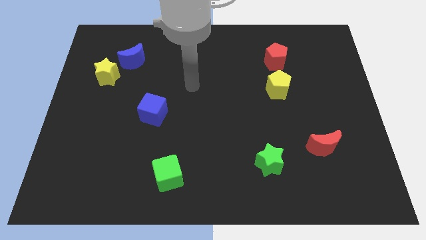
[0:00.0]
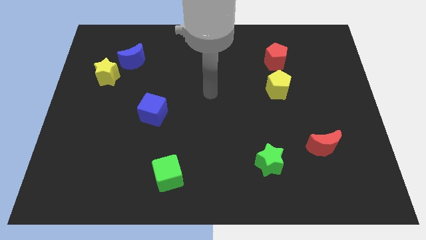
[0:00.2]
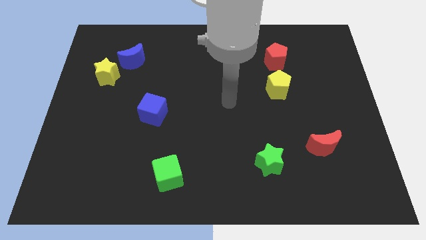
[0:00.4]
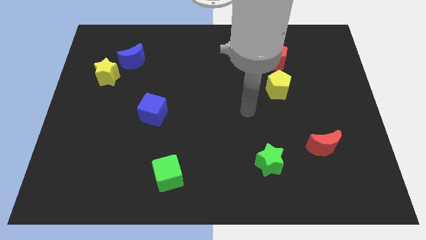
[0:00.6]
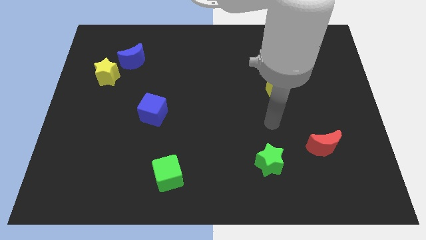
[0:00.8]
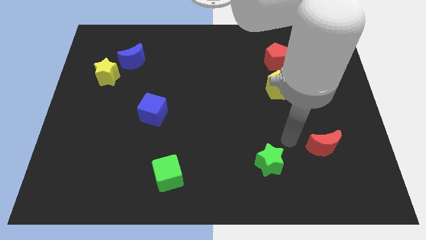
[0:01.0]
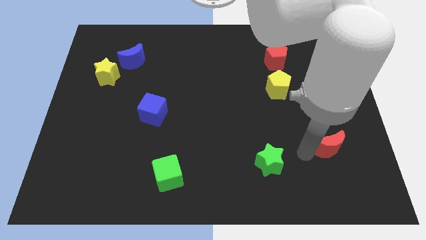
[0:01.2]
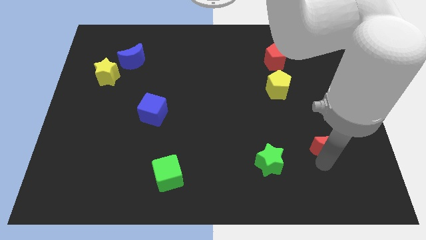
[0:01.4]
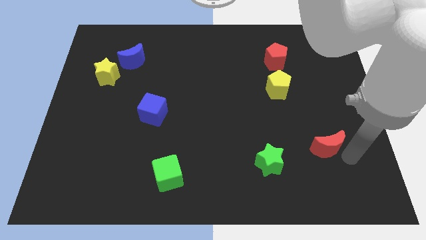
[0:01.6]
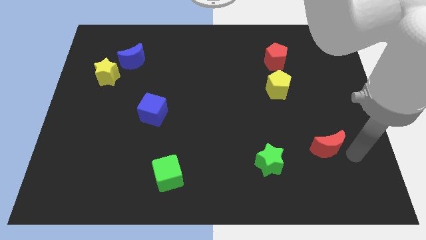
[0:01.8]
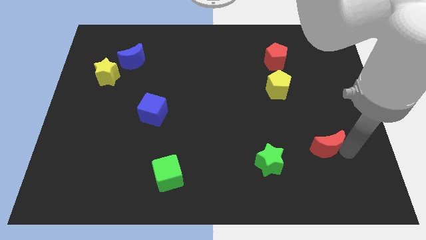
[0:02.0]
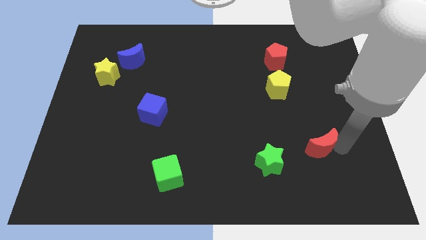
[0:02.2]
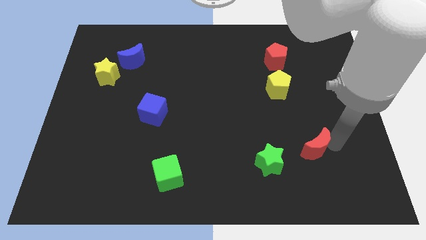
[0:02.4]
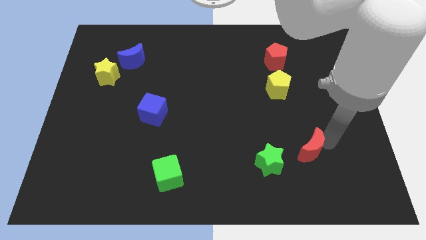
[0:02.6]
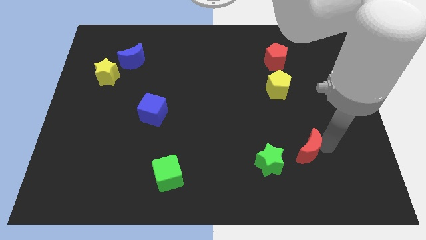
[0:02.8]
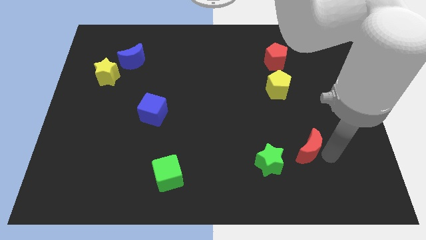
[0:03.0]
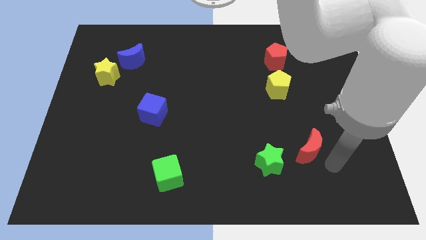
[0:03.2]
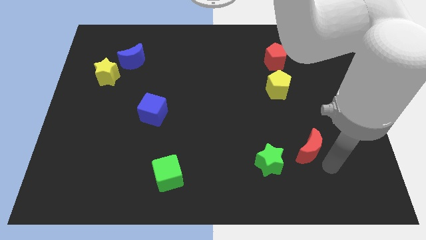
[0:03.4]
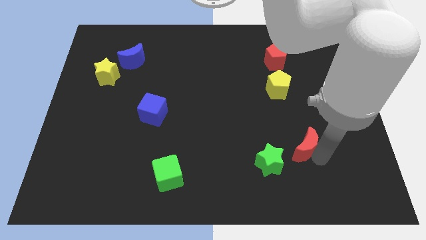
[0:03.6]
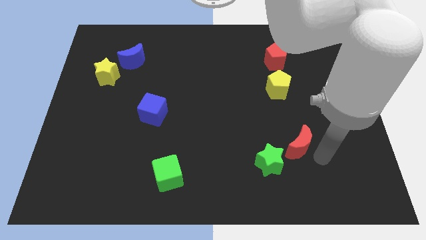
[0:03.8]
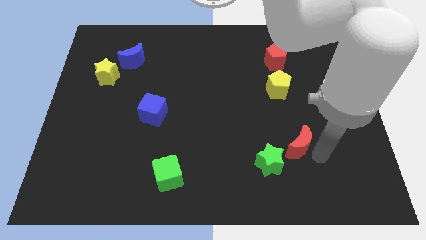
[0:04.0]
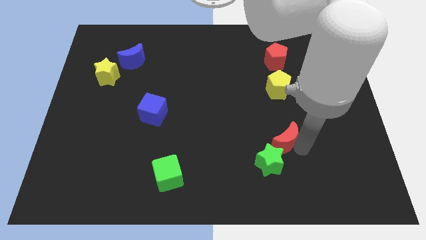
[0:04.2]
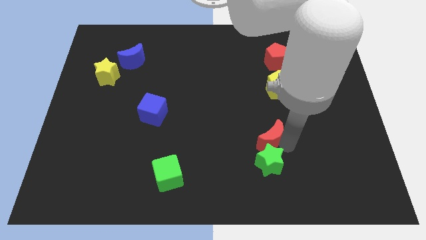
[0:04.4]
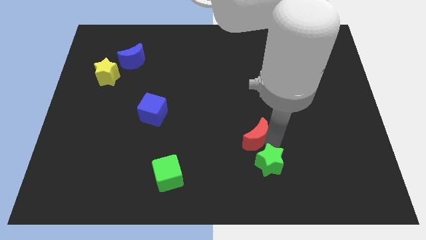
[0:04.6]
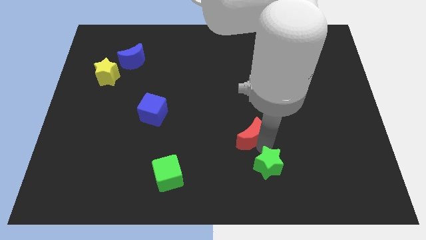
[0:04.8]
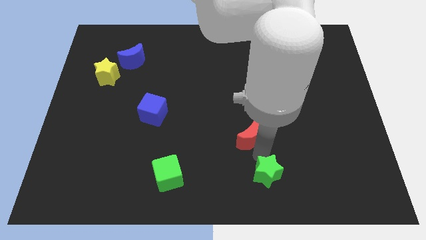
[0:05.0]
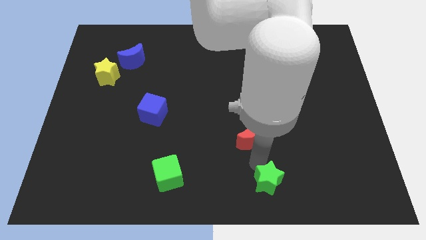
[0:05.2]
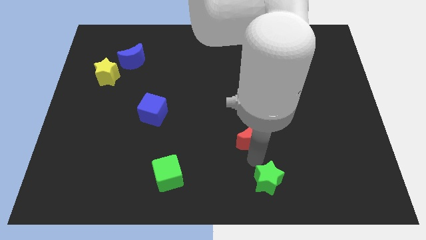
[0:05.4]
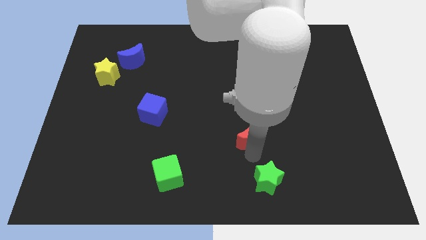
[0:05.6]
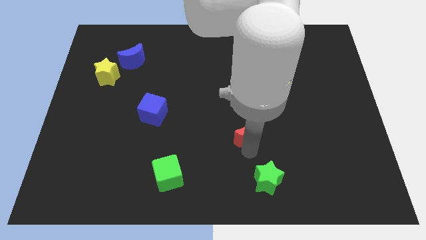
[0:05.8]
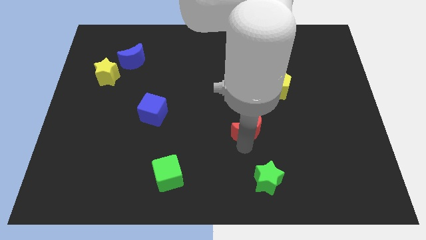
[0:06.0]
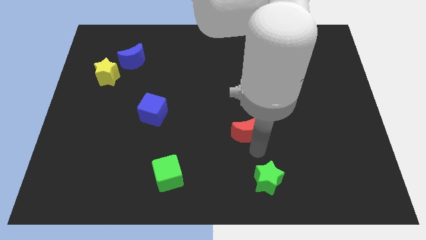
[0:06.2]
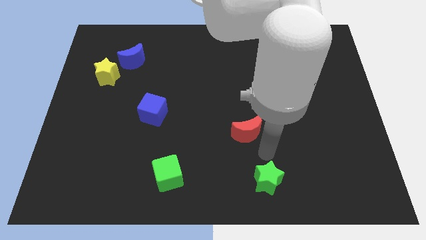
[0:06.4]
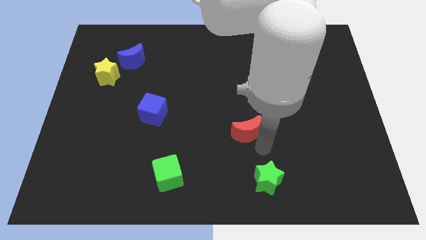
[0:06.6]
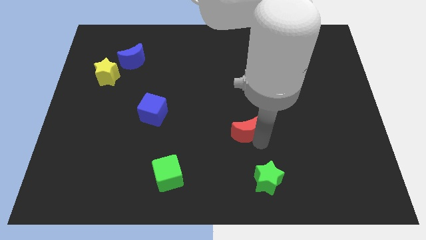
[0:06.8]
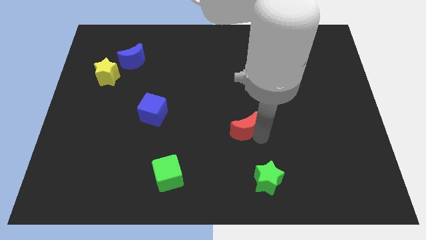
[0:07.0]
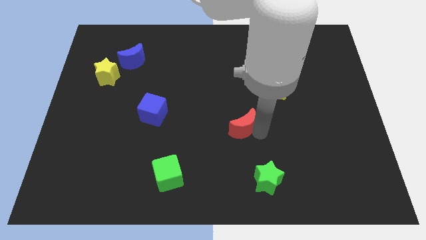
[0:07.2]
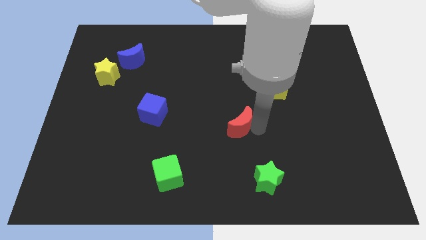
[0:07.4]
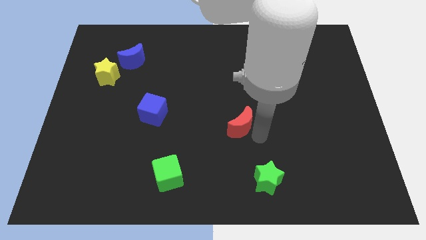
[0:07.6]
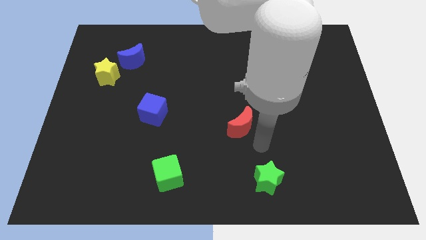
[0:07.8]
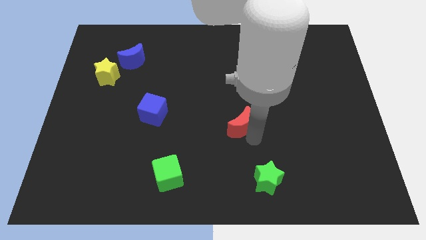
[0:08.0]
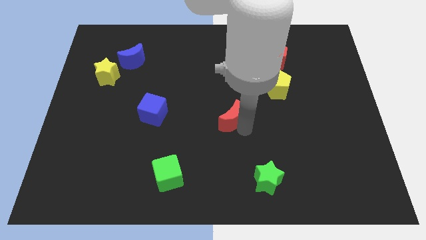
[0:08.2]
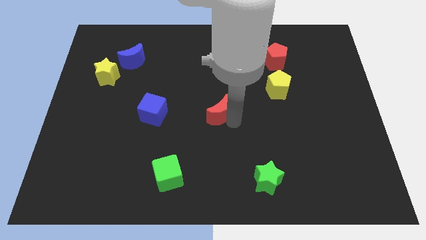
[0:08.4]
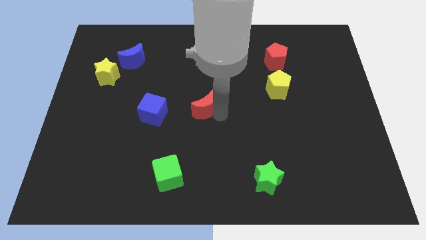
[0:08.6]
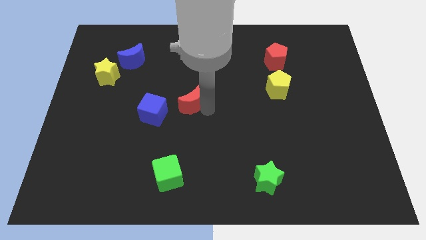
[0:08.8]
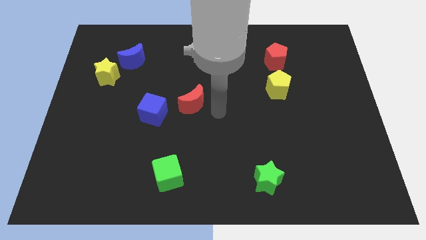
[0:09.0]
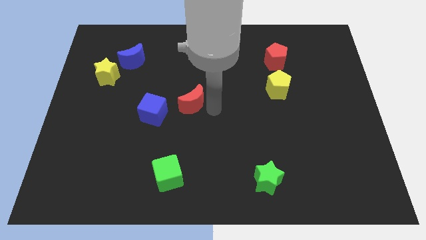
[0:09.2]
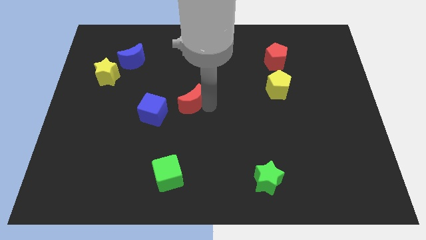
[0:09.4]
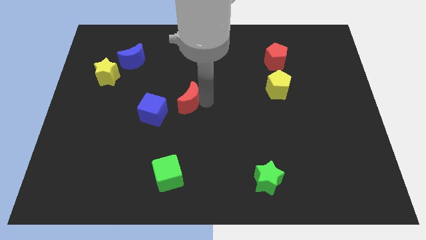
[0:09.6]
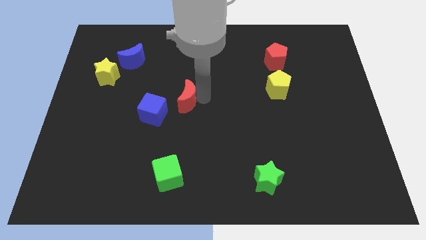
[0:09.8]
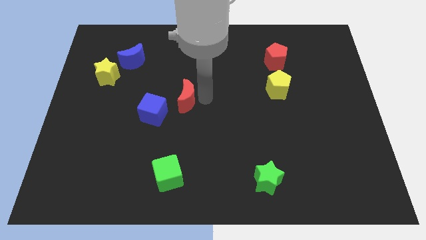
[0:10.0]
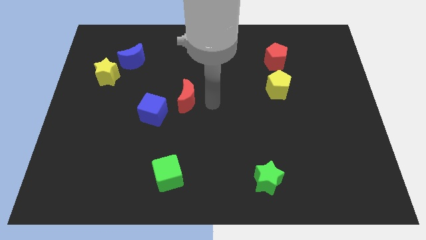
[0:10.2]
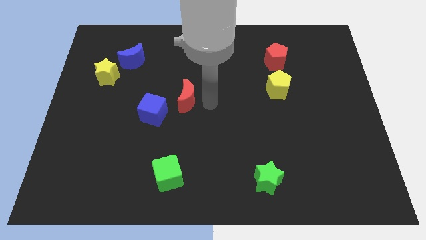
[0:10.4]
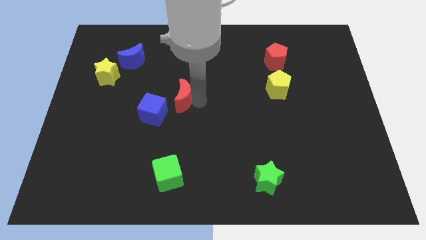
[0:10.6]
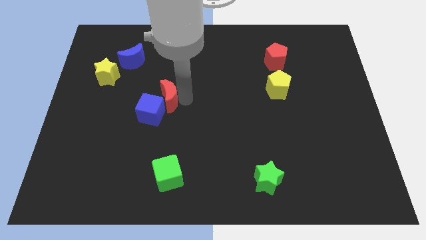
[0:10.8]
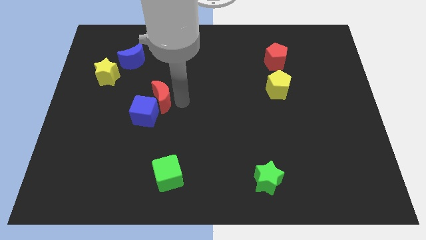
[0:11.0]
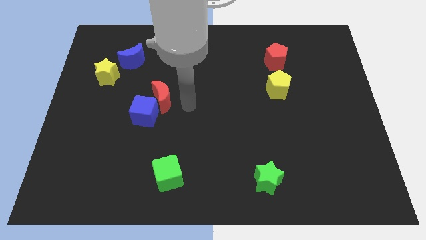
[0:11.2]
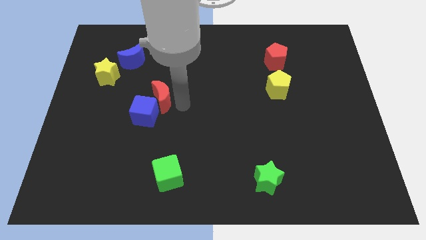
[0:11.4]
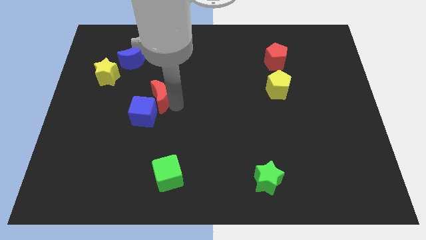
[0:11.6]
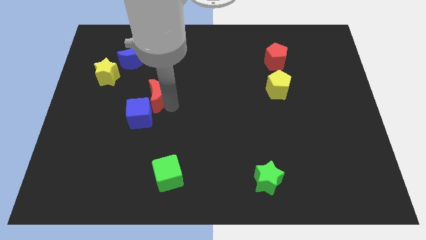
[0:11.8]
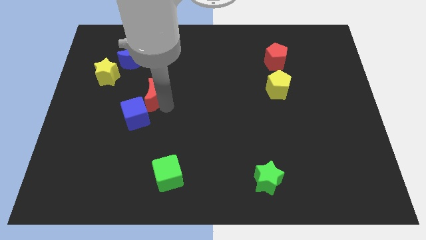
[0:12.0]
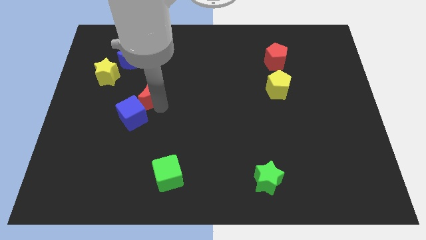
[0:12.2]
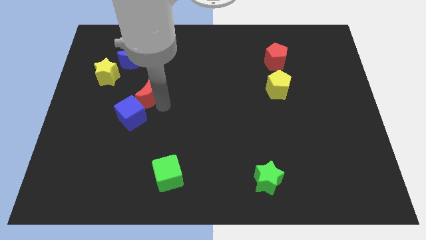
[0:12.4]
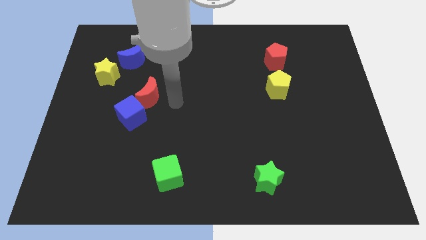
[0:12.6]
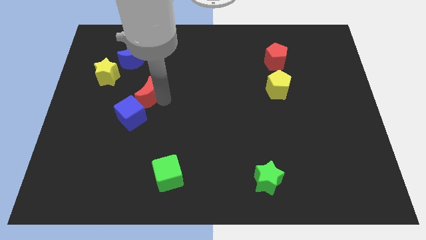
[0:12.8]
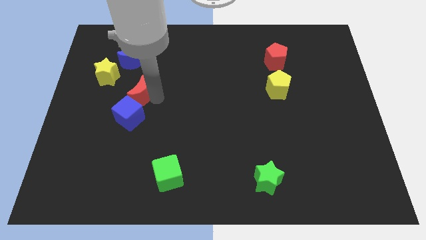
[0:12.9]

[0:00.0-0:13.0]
push the red moon to the bottom right side of the yellow star
